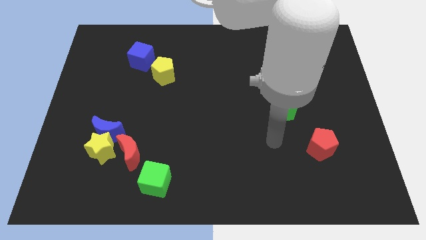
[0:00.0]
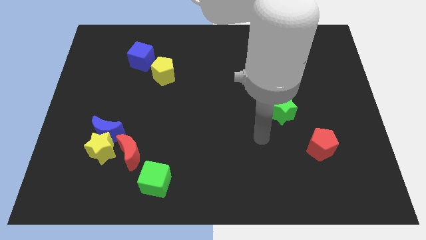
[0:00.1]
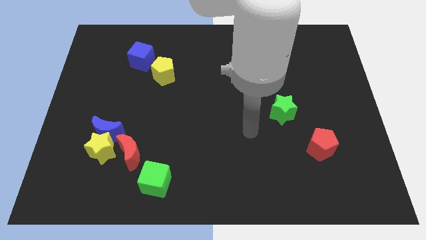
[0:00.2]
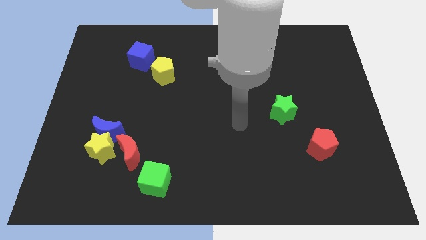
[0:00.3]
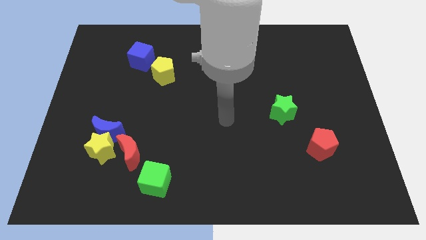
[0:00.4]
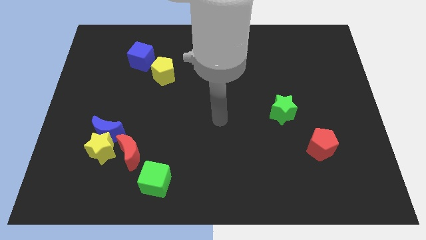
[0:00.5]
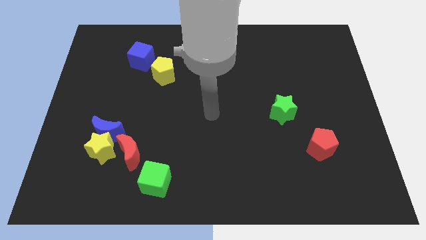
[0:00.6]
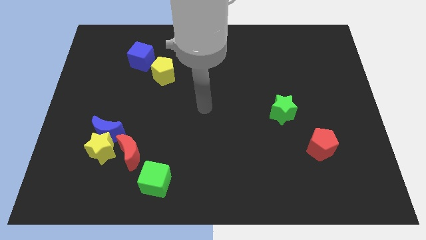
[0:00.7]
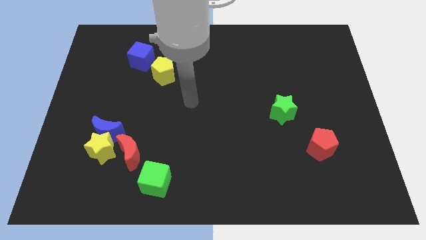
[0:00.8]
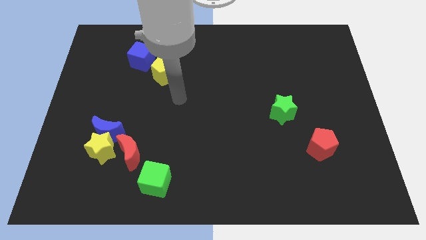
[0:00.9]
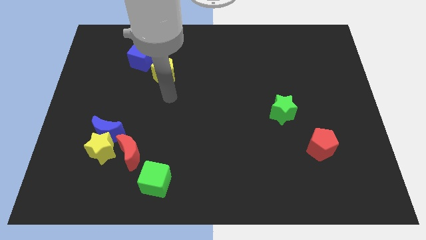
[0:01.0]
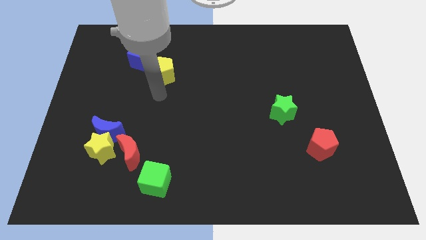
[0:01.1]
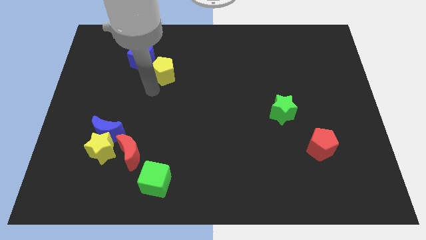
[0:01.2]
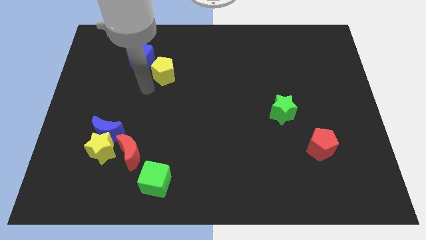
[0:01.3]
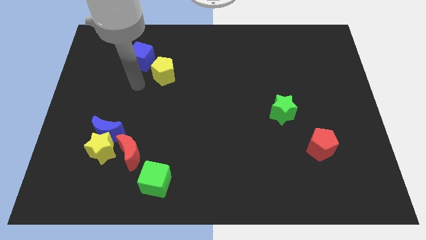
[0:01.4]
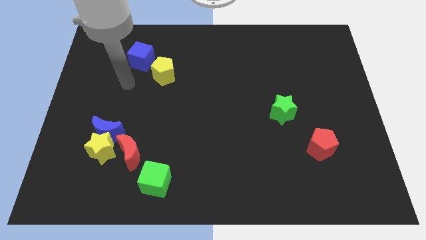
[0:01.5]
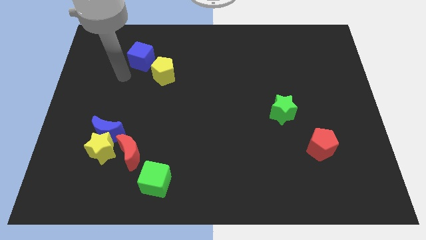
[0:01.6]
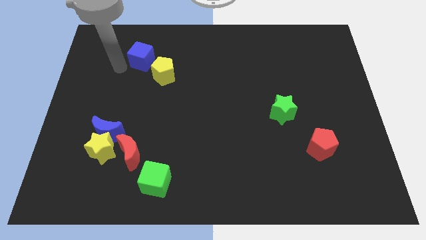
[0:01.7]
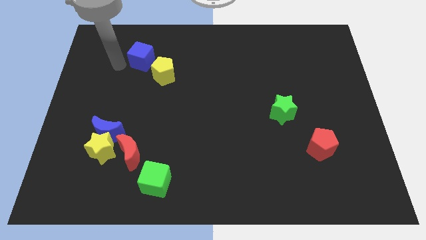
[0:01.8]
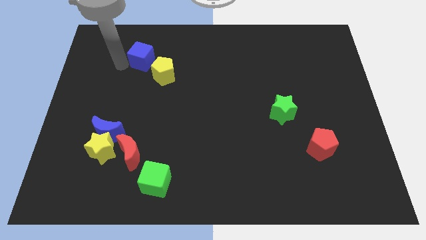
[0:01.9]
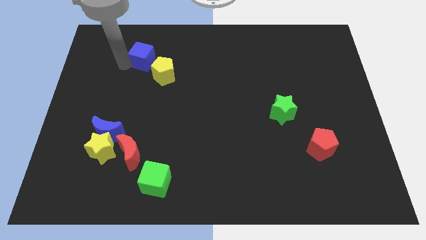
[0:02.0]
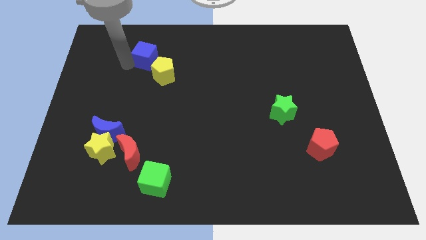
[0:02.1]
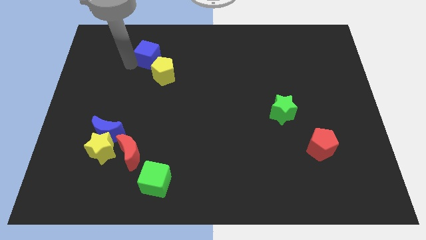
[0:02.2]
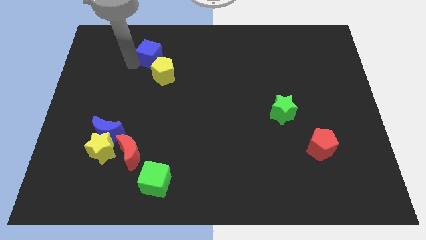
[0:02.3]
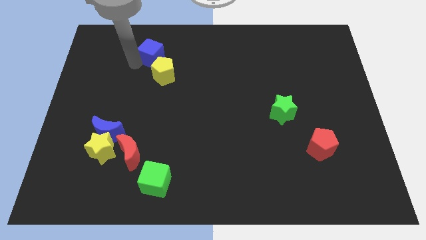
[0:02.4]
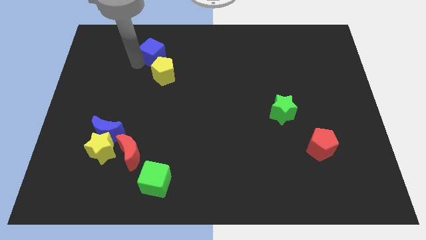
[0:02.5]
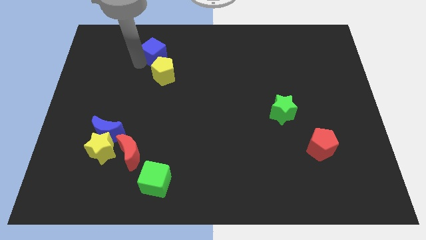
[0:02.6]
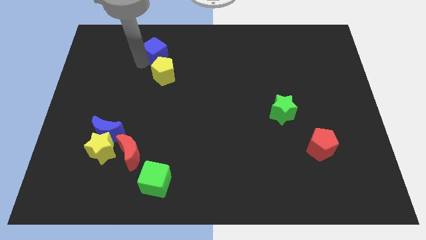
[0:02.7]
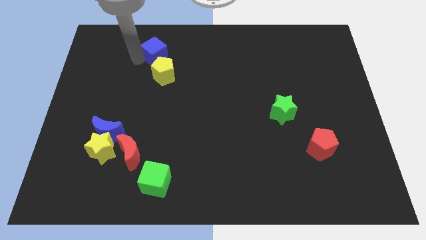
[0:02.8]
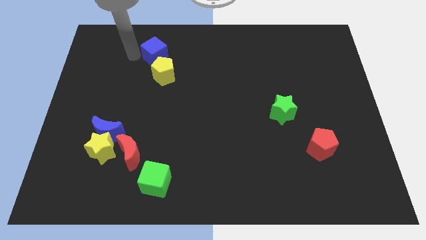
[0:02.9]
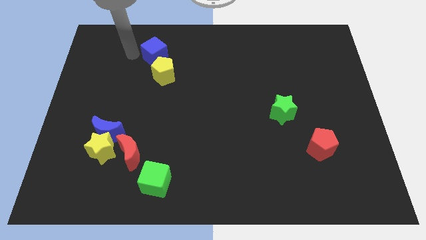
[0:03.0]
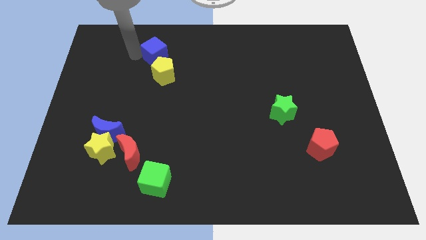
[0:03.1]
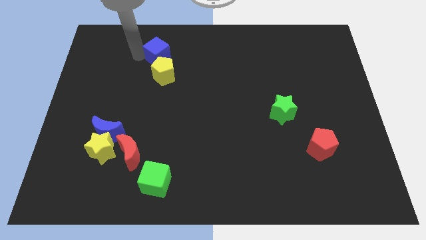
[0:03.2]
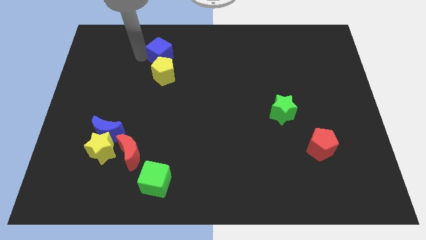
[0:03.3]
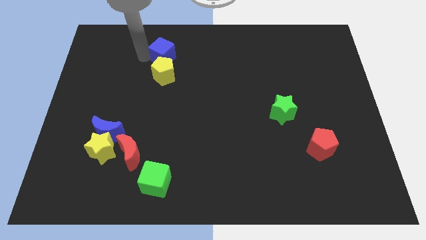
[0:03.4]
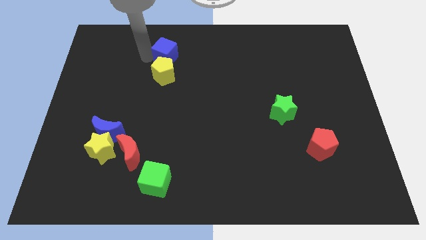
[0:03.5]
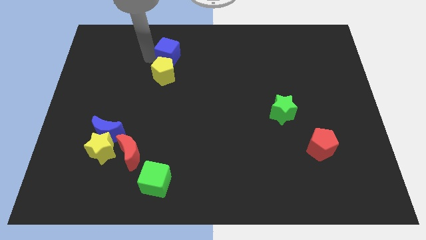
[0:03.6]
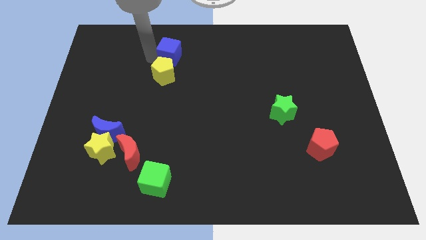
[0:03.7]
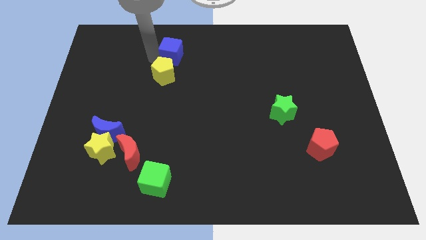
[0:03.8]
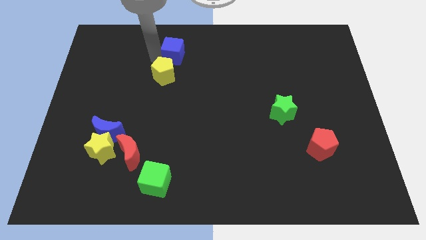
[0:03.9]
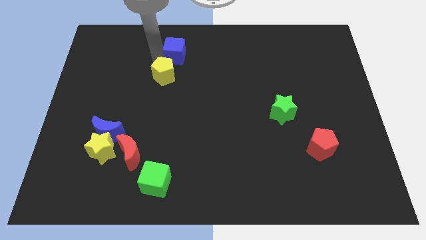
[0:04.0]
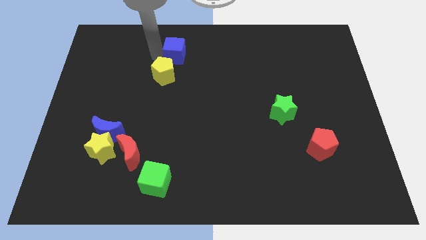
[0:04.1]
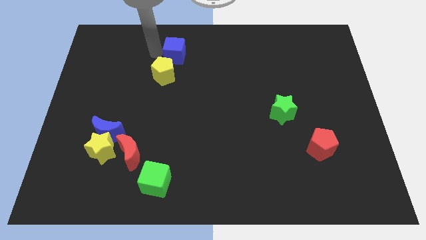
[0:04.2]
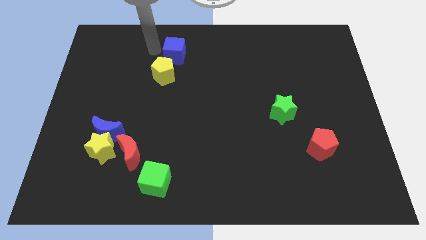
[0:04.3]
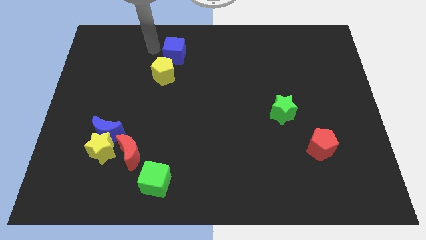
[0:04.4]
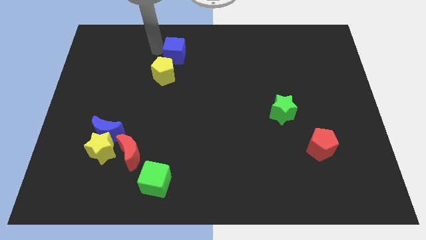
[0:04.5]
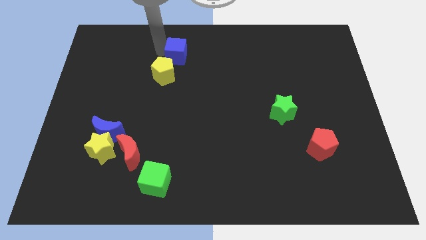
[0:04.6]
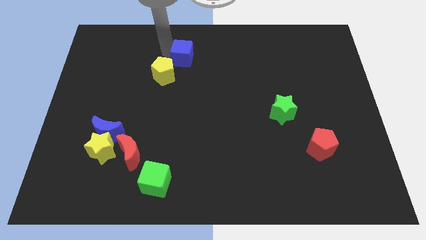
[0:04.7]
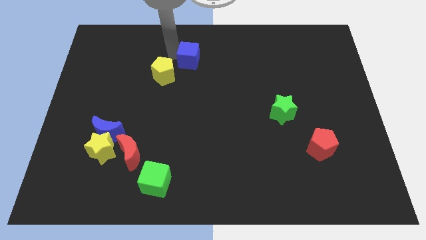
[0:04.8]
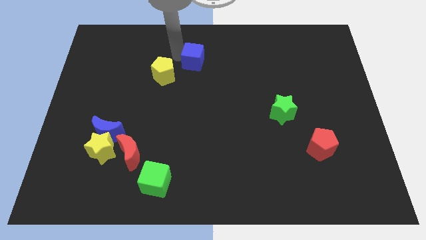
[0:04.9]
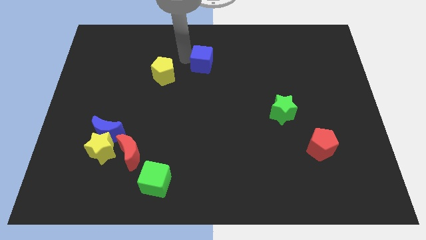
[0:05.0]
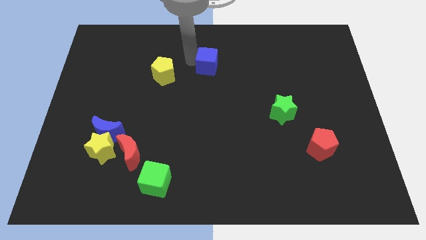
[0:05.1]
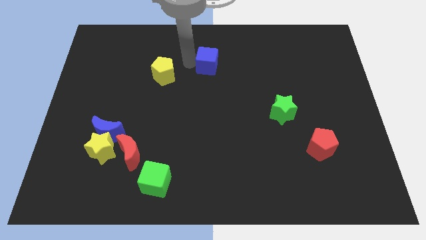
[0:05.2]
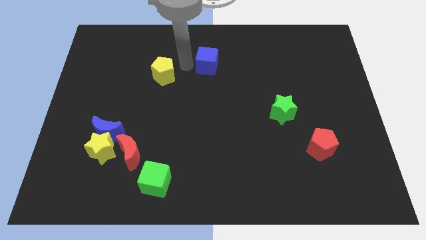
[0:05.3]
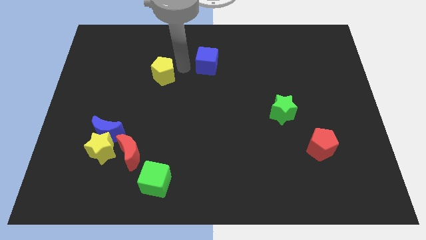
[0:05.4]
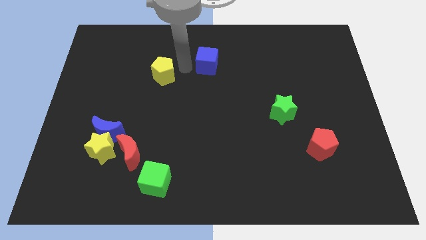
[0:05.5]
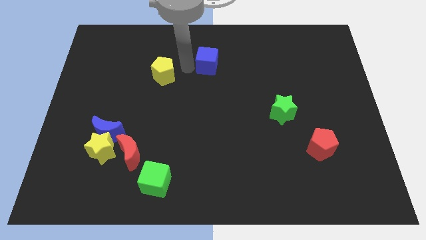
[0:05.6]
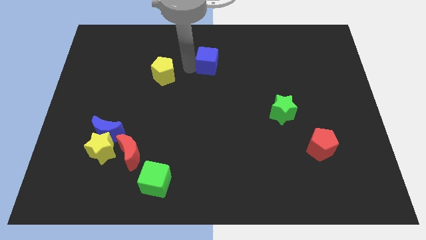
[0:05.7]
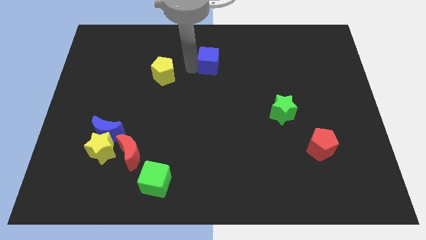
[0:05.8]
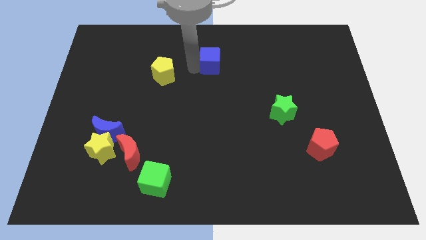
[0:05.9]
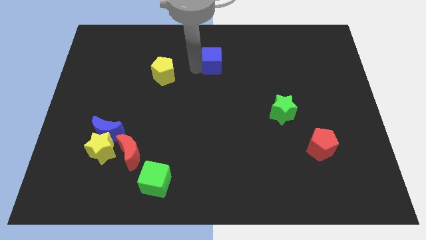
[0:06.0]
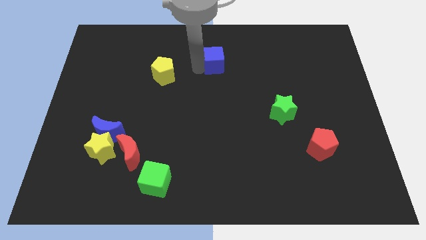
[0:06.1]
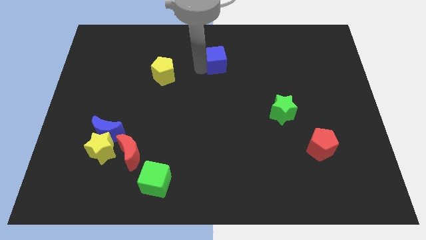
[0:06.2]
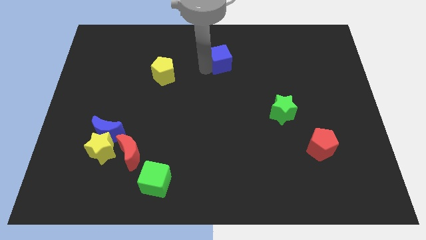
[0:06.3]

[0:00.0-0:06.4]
push the blue cube to the right

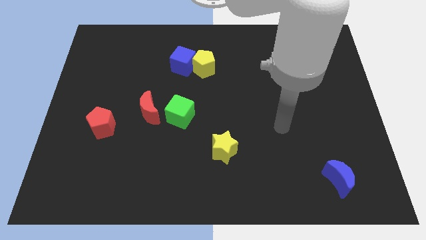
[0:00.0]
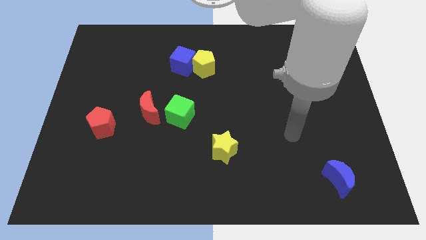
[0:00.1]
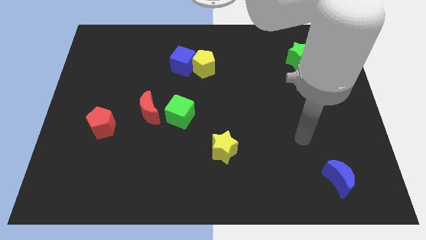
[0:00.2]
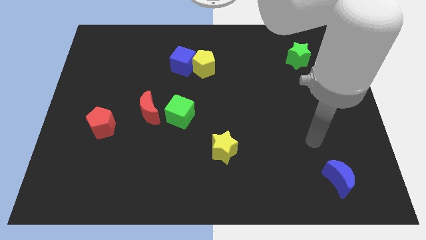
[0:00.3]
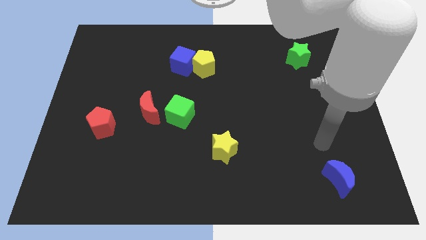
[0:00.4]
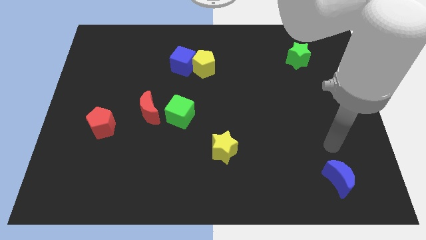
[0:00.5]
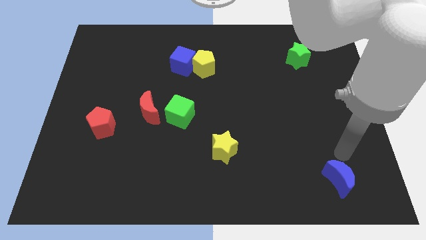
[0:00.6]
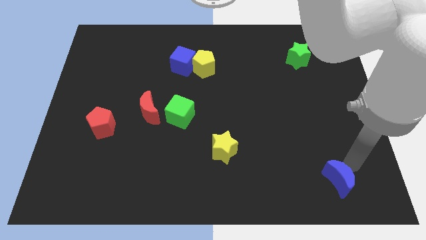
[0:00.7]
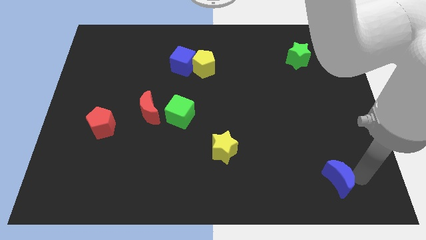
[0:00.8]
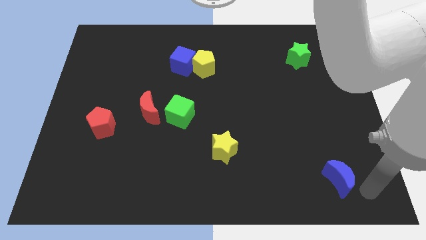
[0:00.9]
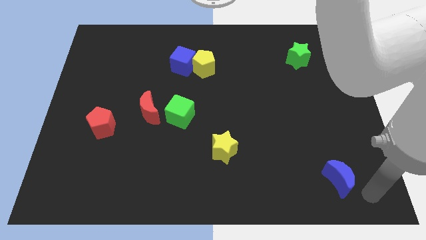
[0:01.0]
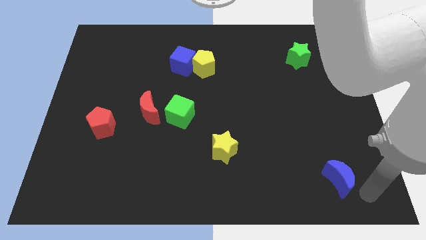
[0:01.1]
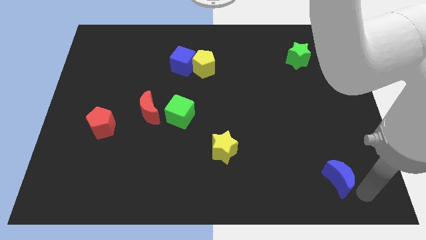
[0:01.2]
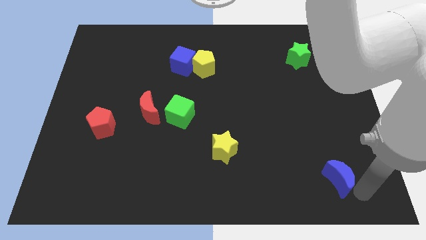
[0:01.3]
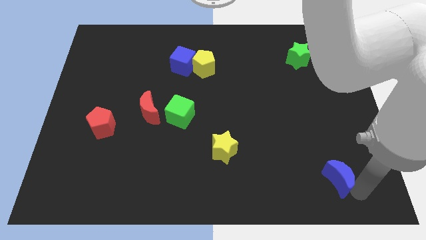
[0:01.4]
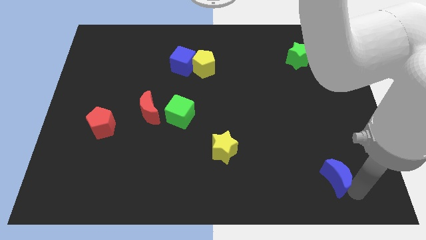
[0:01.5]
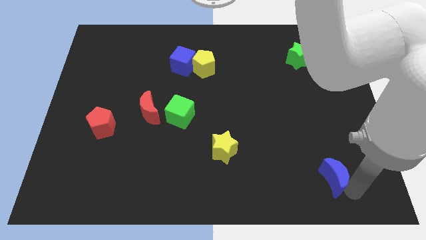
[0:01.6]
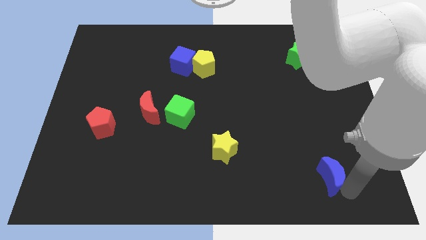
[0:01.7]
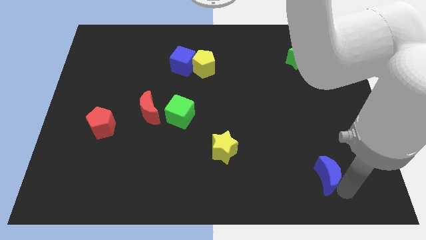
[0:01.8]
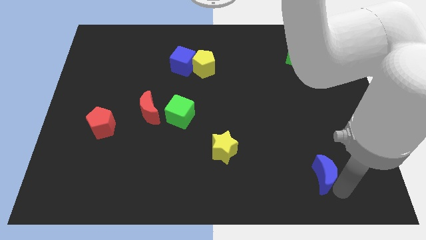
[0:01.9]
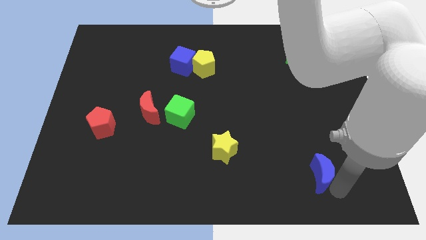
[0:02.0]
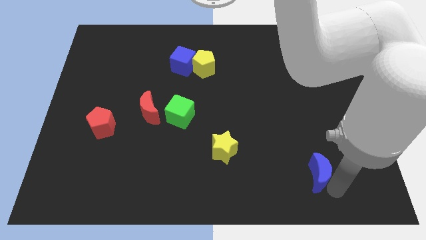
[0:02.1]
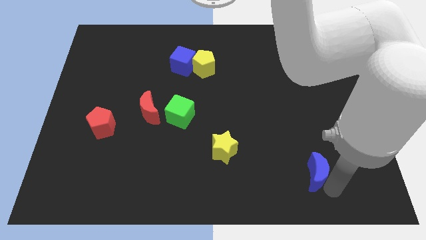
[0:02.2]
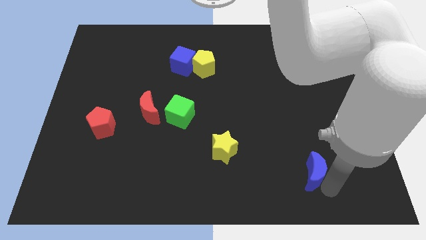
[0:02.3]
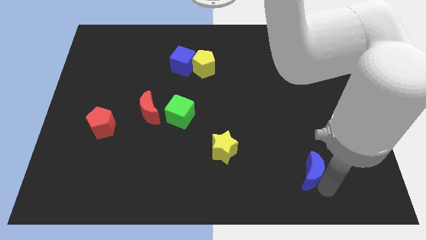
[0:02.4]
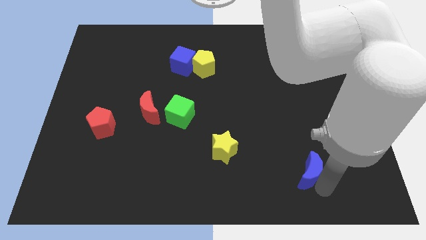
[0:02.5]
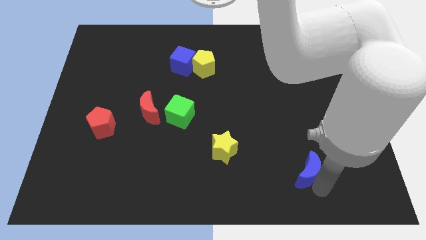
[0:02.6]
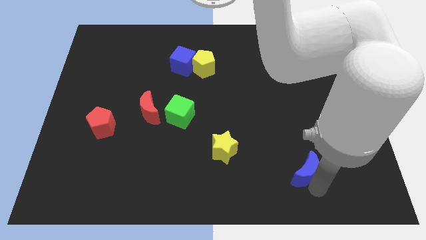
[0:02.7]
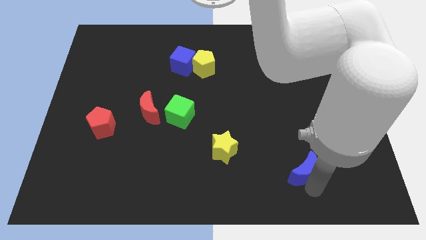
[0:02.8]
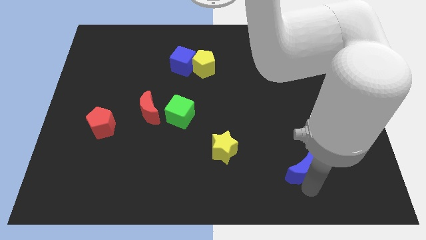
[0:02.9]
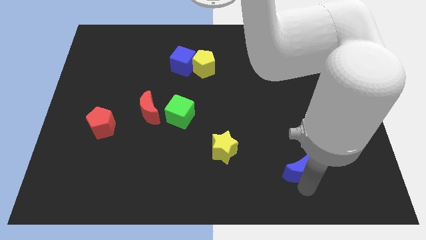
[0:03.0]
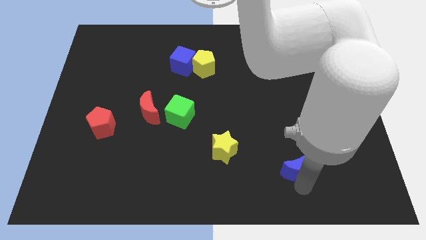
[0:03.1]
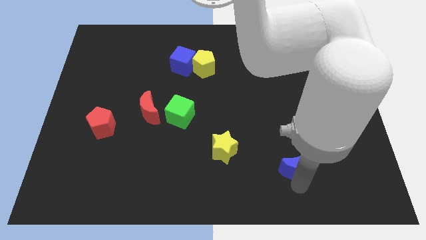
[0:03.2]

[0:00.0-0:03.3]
move the blue moon a little bit diagonally upwards and to the left
